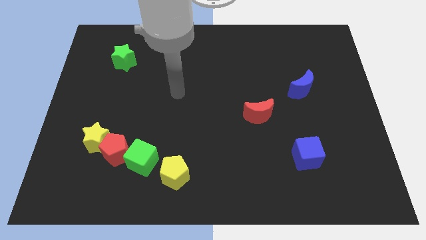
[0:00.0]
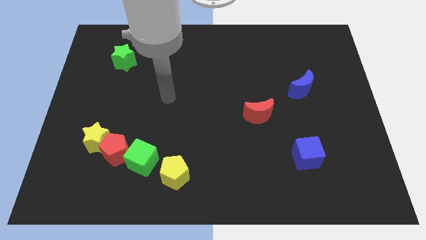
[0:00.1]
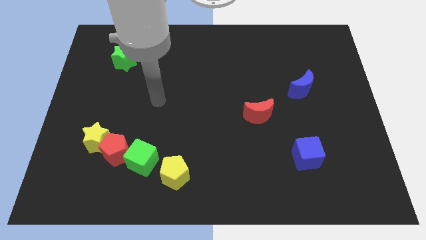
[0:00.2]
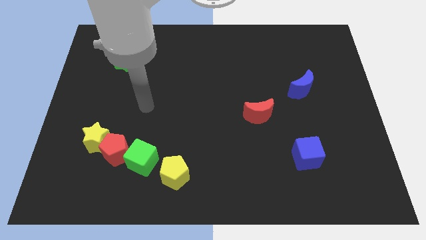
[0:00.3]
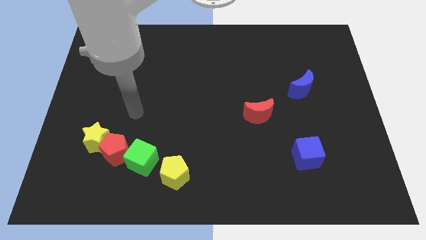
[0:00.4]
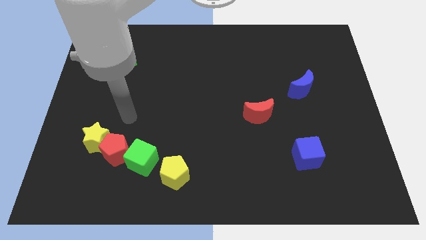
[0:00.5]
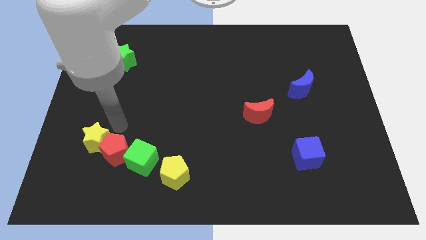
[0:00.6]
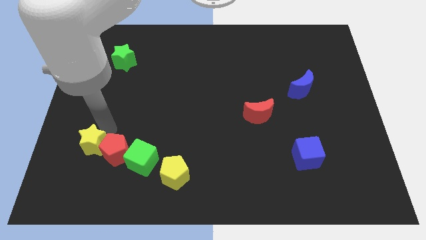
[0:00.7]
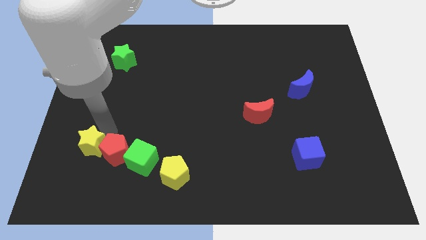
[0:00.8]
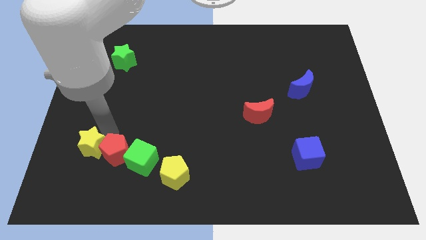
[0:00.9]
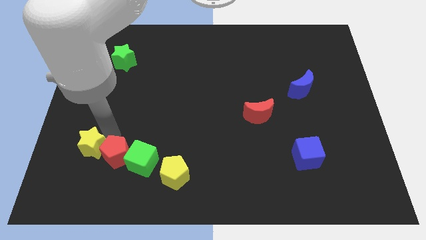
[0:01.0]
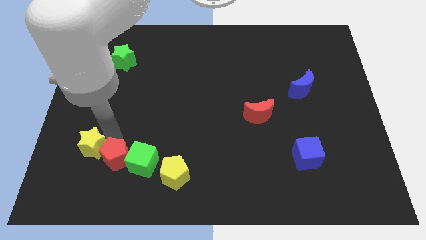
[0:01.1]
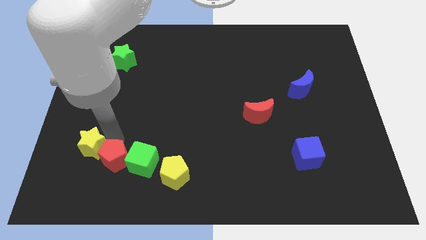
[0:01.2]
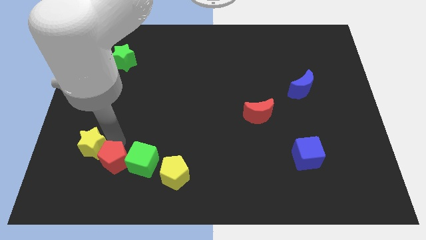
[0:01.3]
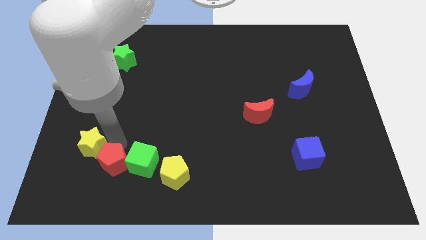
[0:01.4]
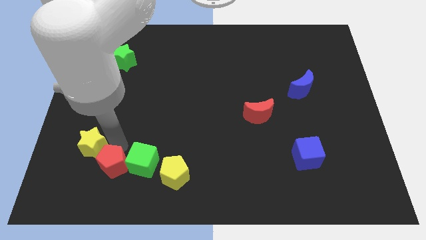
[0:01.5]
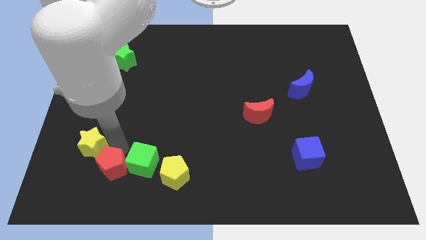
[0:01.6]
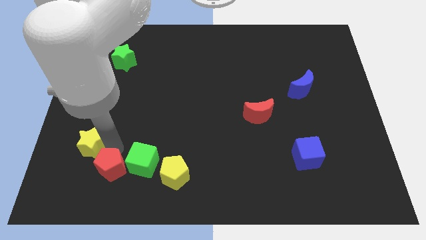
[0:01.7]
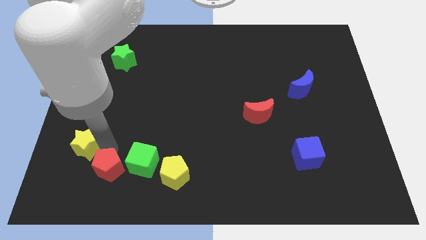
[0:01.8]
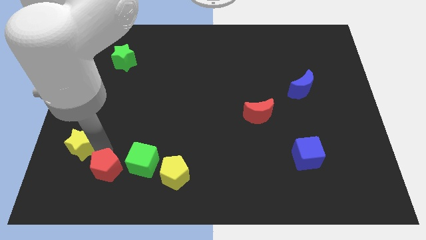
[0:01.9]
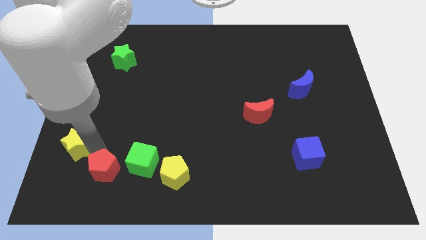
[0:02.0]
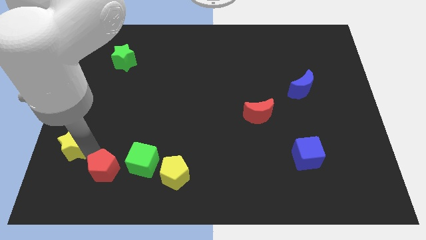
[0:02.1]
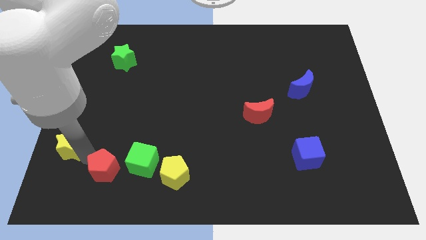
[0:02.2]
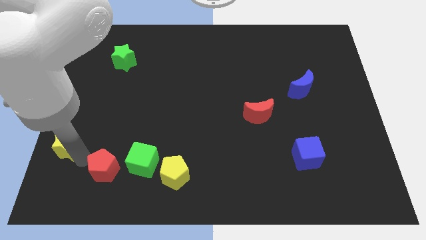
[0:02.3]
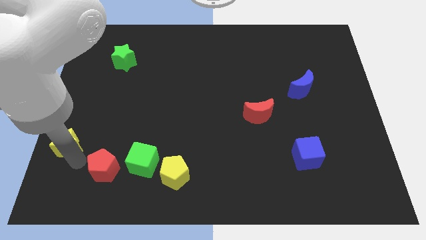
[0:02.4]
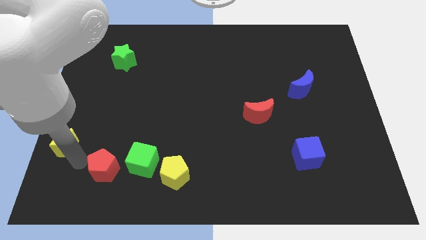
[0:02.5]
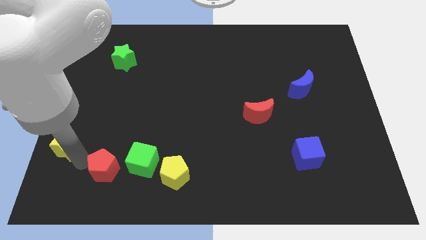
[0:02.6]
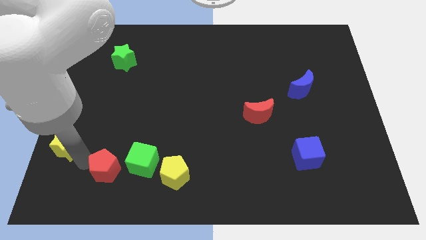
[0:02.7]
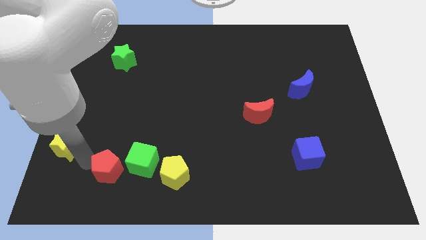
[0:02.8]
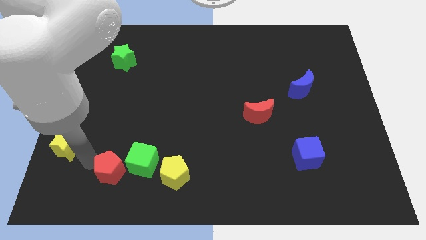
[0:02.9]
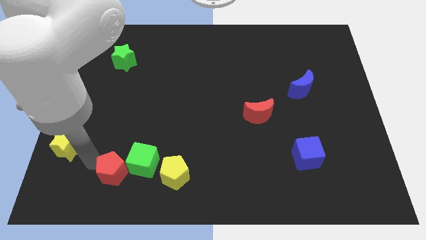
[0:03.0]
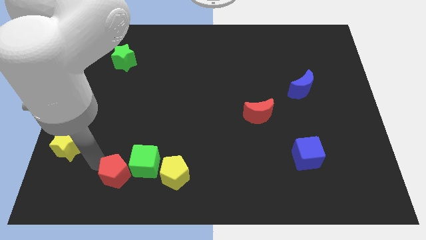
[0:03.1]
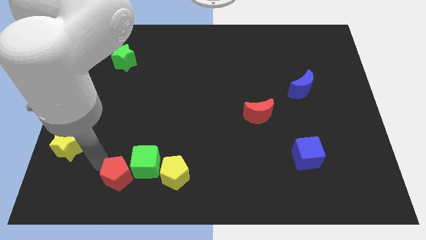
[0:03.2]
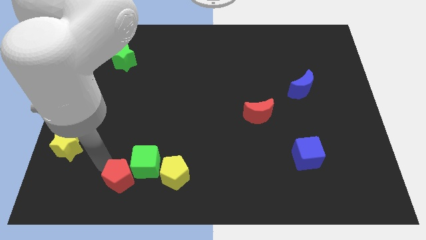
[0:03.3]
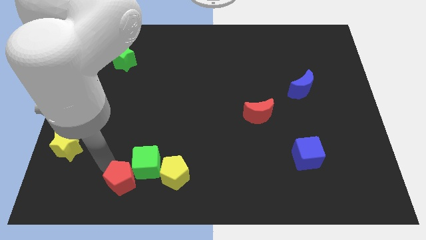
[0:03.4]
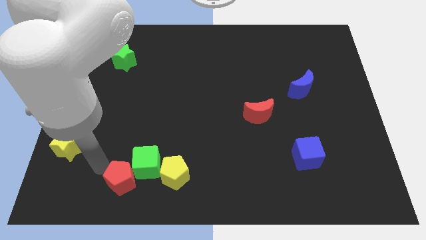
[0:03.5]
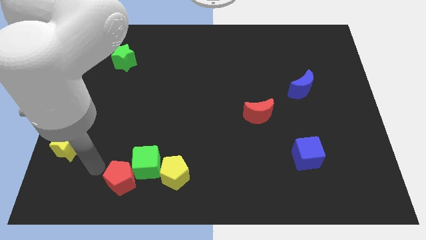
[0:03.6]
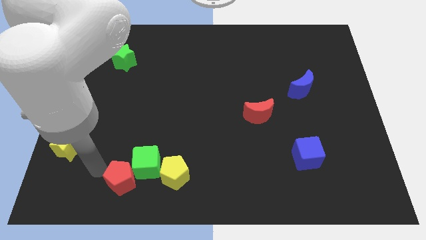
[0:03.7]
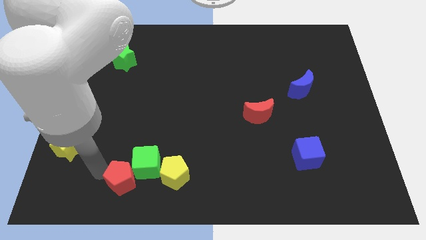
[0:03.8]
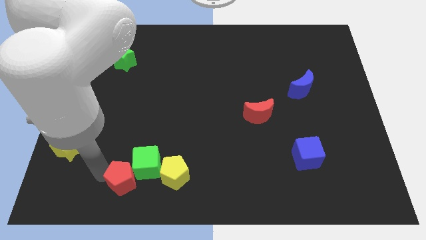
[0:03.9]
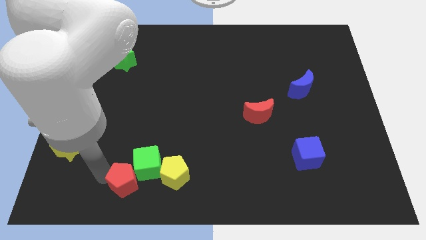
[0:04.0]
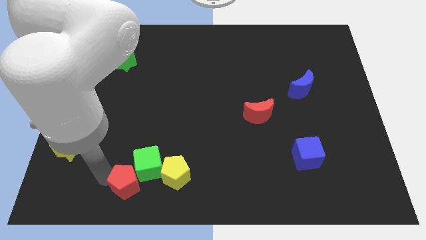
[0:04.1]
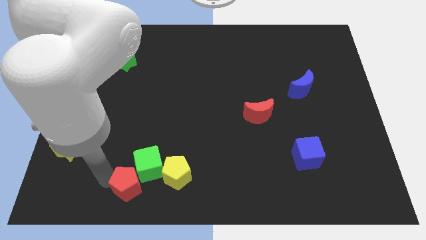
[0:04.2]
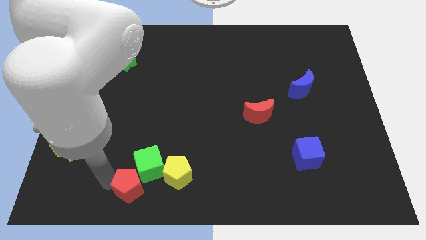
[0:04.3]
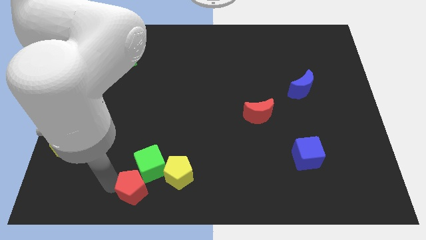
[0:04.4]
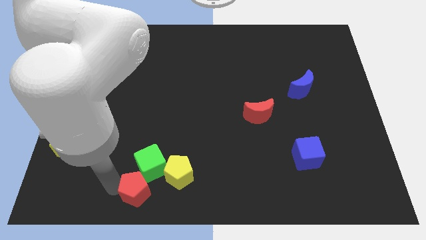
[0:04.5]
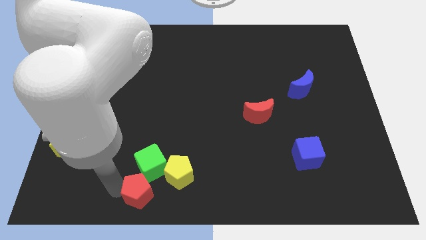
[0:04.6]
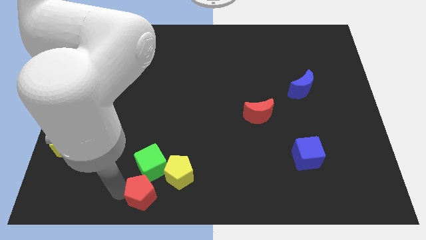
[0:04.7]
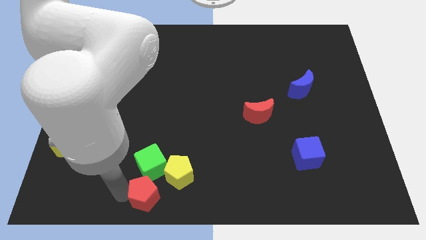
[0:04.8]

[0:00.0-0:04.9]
slide the red pentagon to the bottom side

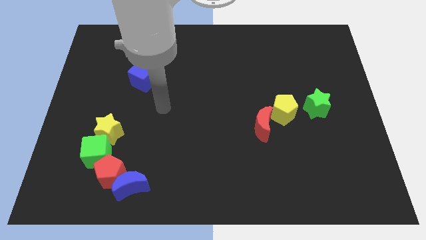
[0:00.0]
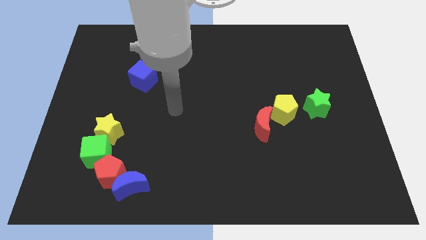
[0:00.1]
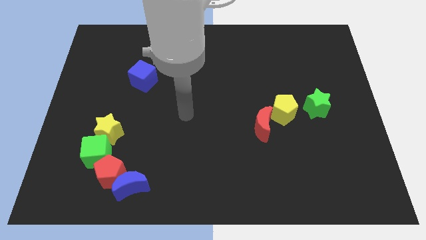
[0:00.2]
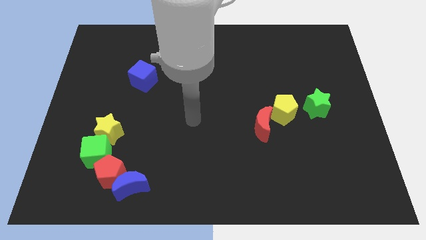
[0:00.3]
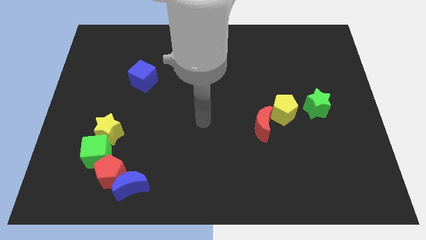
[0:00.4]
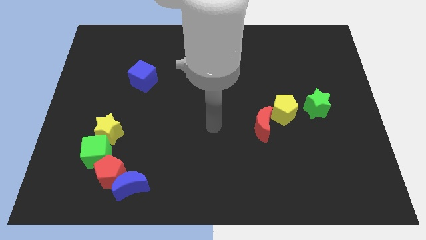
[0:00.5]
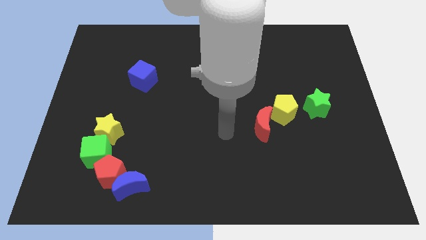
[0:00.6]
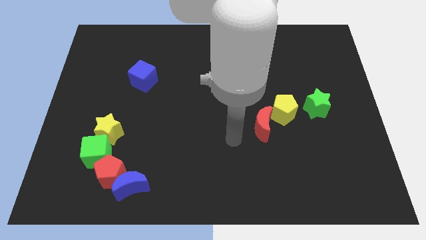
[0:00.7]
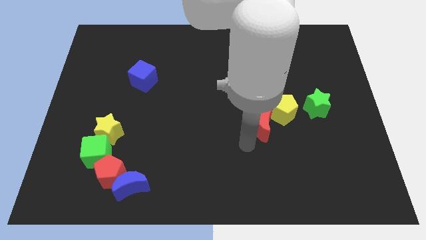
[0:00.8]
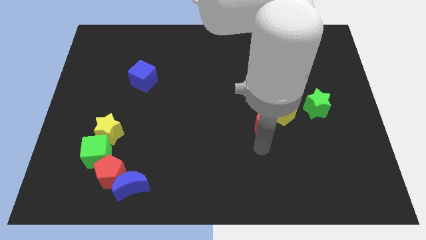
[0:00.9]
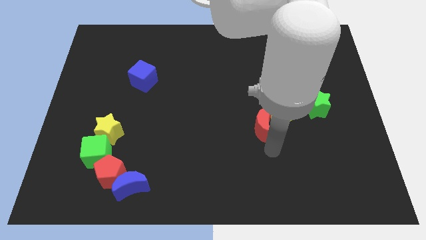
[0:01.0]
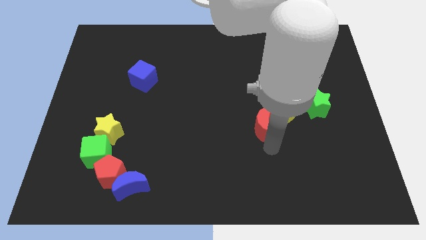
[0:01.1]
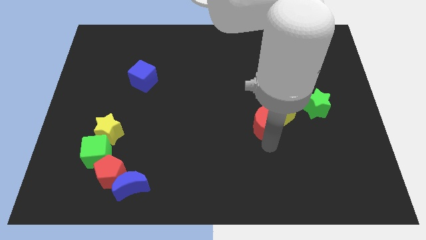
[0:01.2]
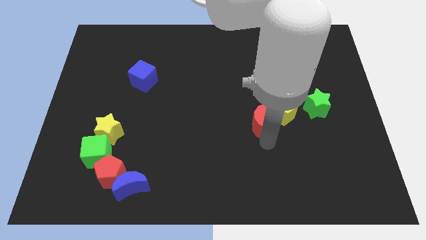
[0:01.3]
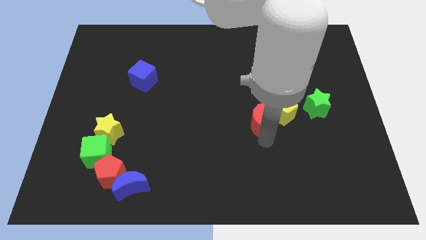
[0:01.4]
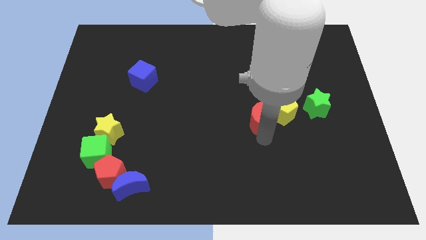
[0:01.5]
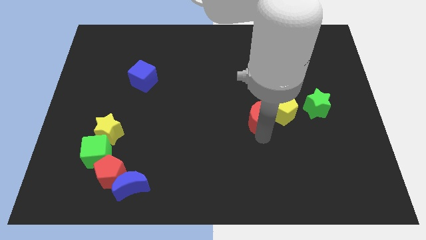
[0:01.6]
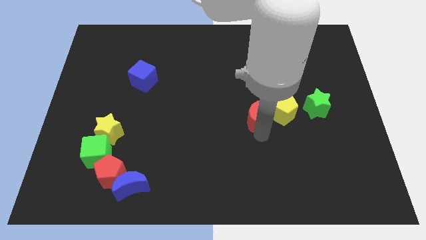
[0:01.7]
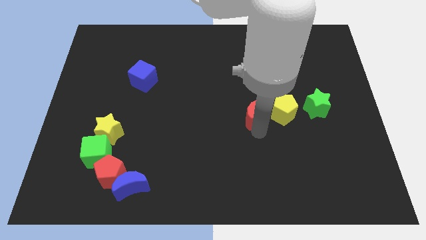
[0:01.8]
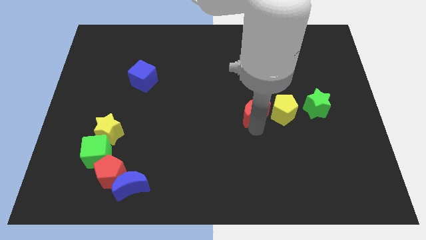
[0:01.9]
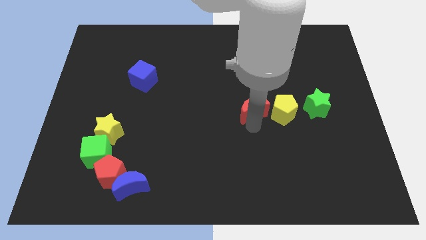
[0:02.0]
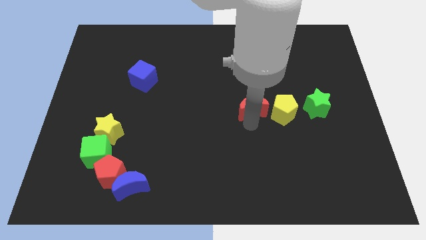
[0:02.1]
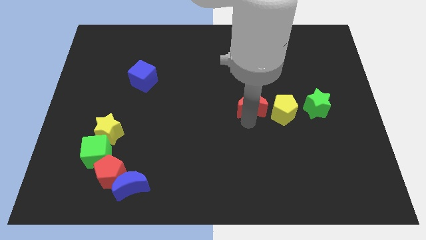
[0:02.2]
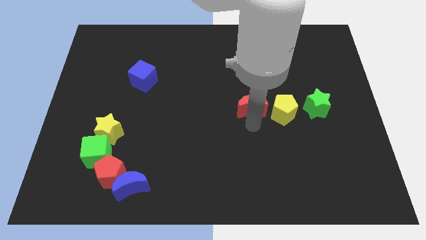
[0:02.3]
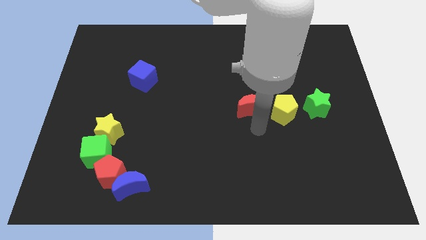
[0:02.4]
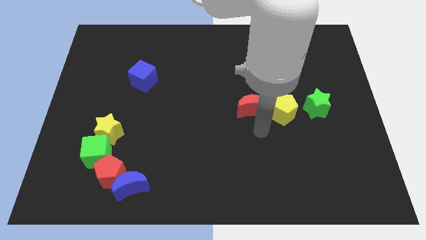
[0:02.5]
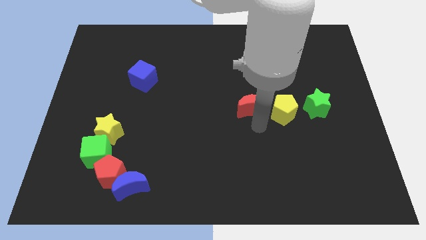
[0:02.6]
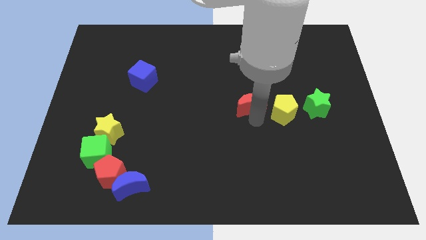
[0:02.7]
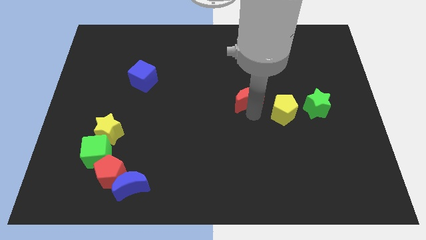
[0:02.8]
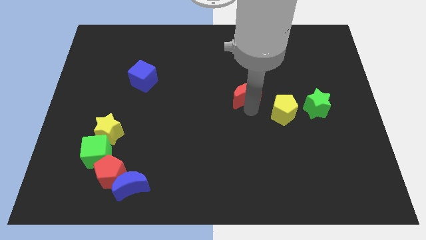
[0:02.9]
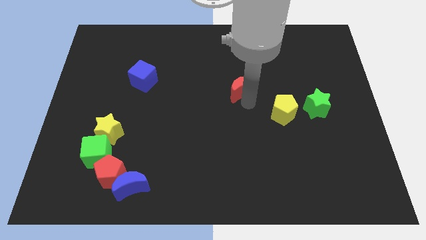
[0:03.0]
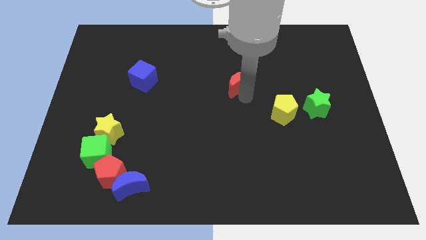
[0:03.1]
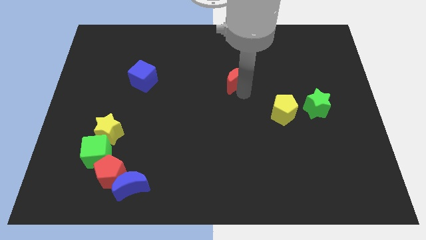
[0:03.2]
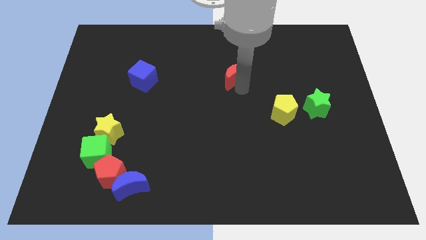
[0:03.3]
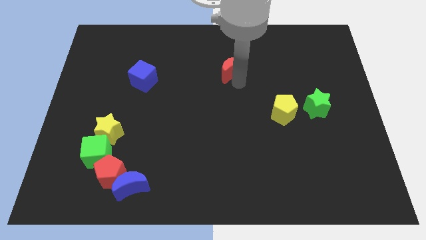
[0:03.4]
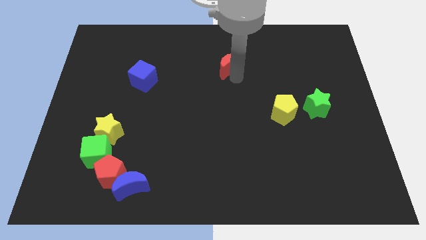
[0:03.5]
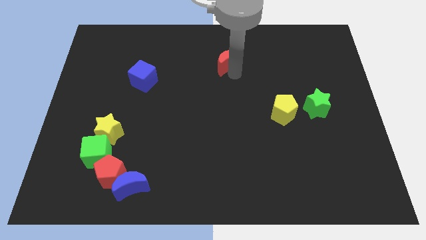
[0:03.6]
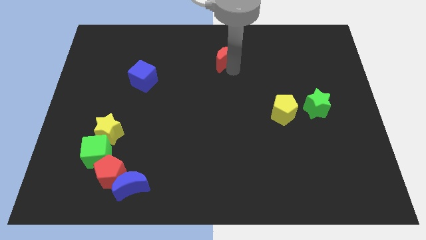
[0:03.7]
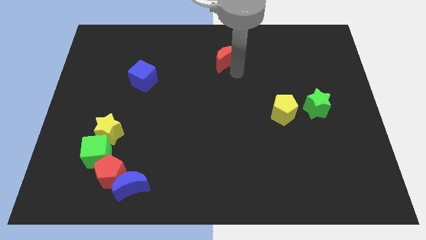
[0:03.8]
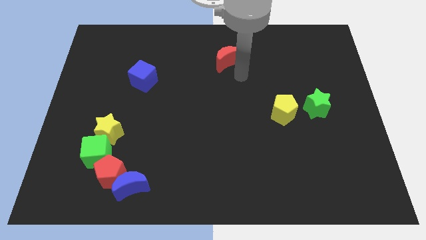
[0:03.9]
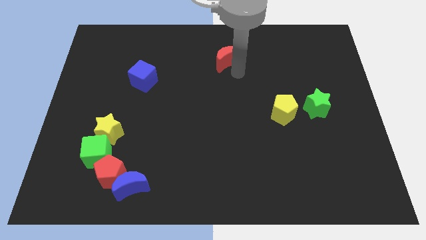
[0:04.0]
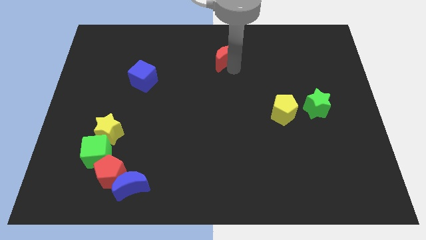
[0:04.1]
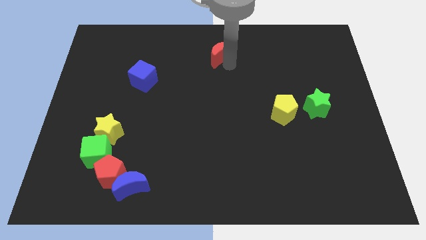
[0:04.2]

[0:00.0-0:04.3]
put the red moon to the top side
